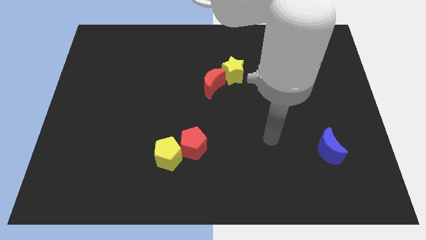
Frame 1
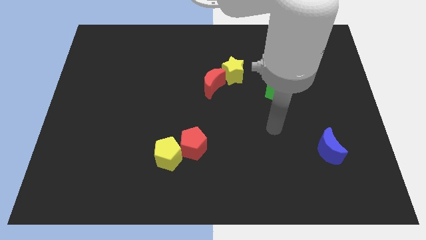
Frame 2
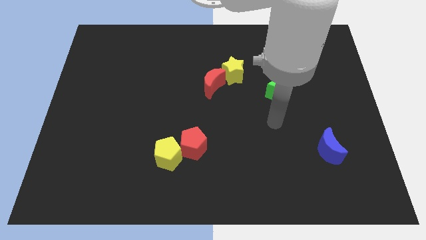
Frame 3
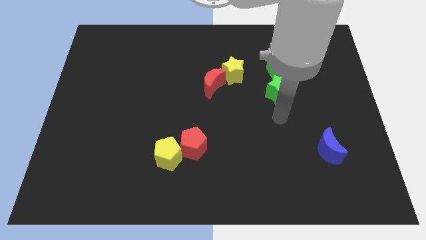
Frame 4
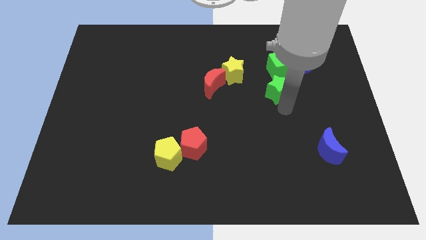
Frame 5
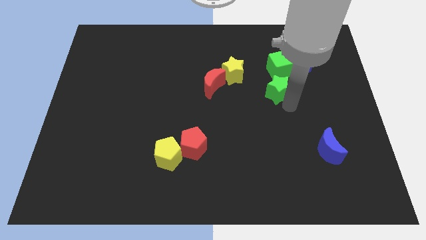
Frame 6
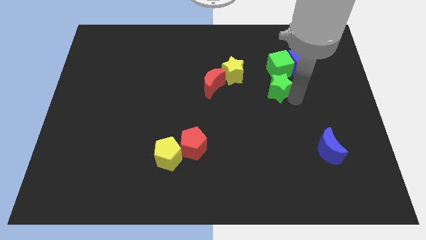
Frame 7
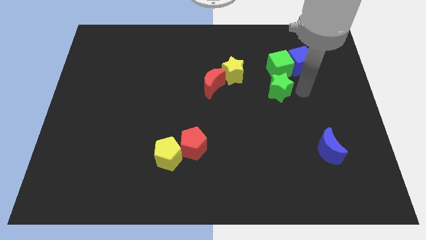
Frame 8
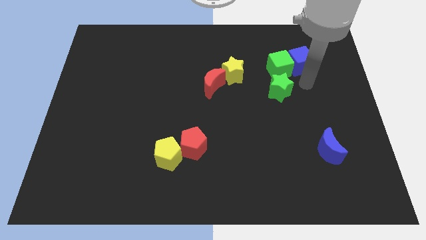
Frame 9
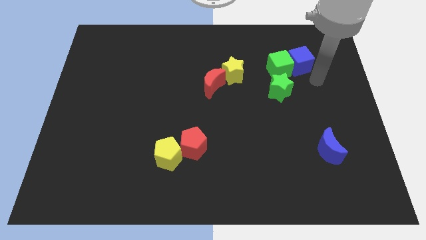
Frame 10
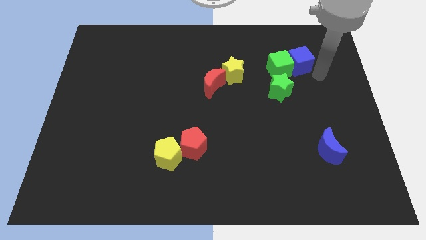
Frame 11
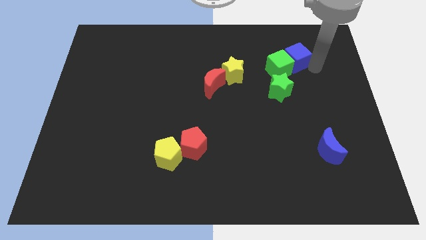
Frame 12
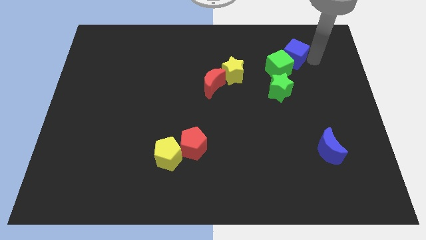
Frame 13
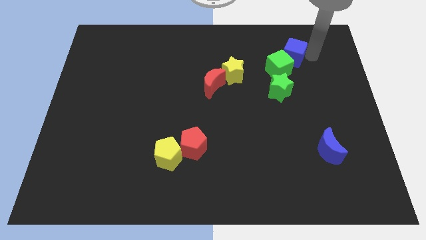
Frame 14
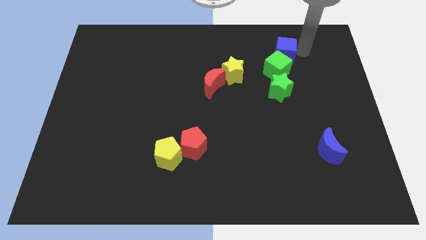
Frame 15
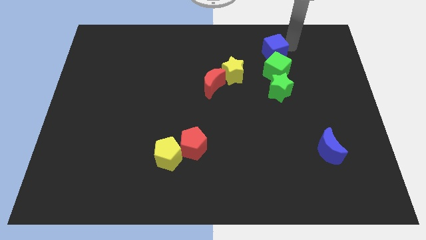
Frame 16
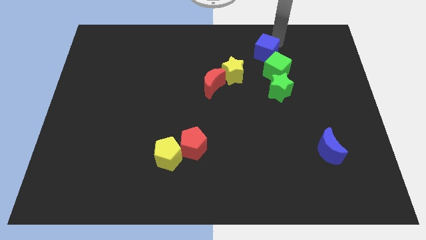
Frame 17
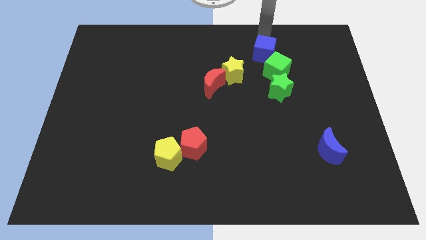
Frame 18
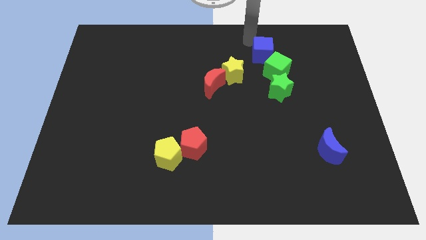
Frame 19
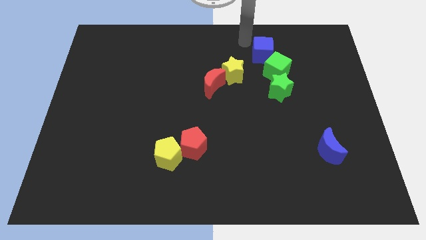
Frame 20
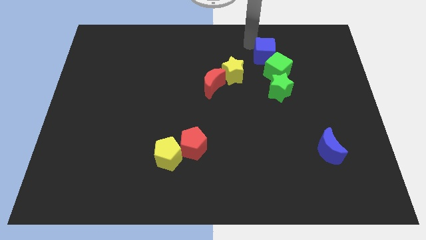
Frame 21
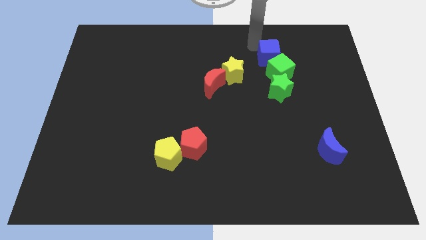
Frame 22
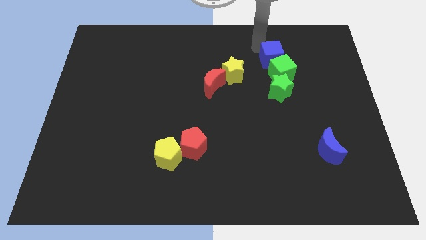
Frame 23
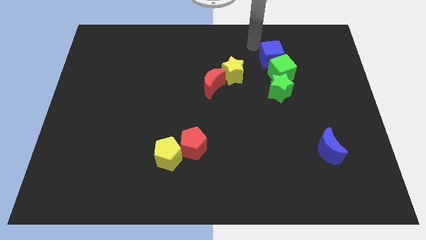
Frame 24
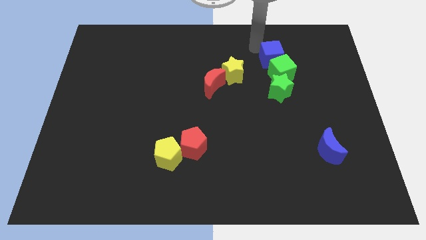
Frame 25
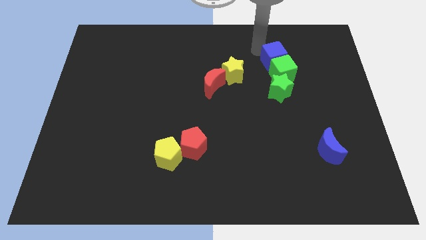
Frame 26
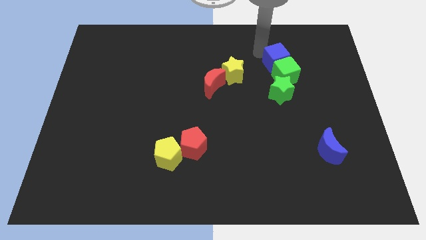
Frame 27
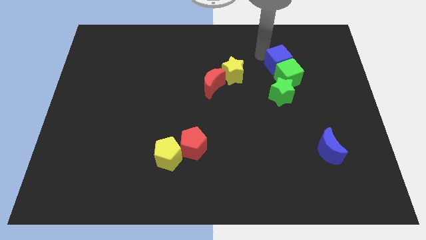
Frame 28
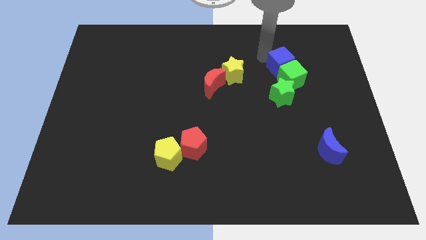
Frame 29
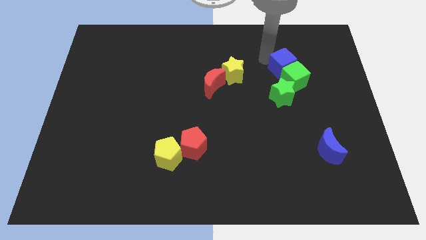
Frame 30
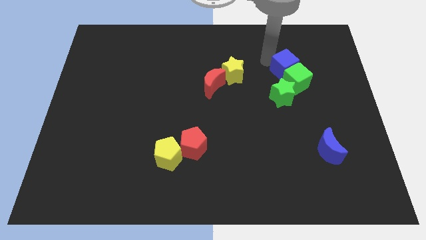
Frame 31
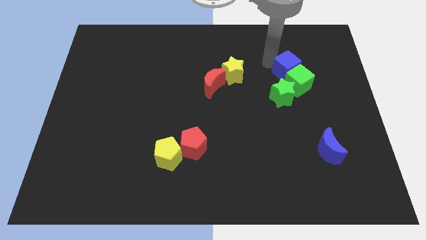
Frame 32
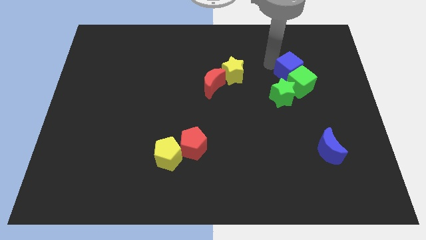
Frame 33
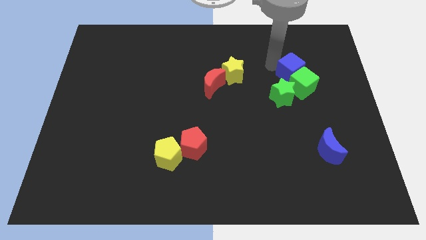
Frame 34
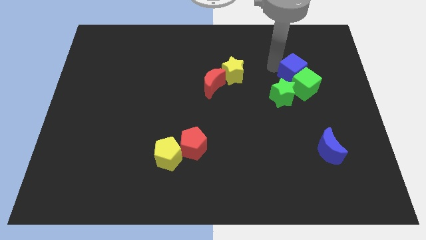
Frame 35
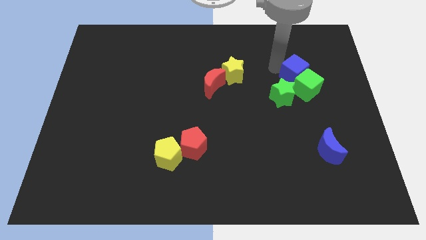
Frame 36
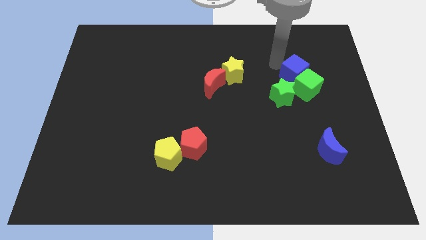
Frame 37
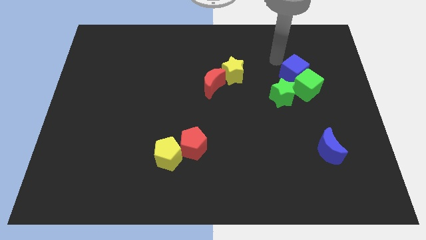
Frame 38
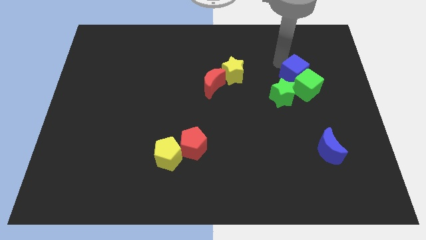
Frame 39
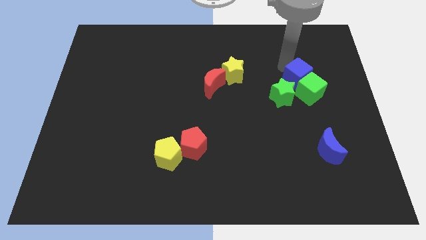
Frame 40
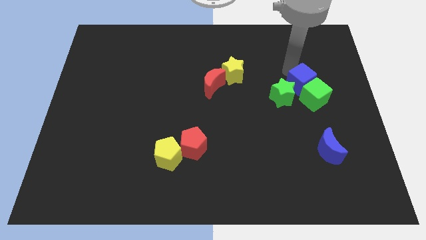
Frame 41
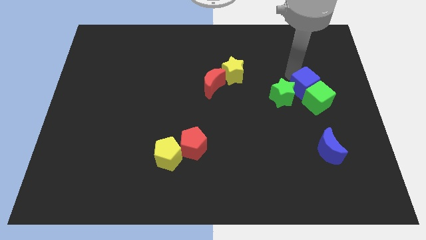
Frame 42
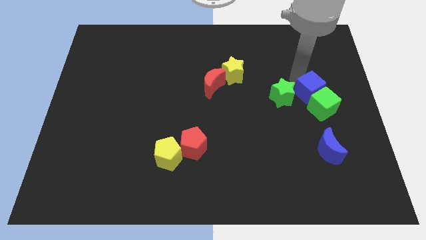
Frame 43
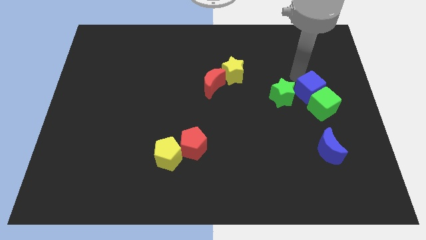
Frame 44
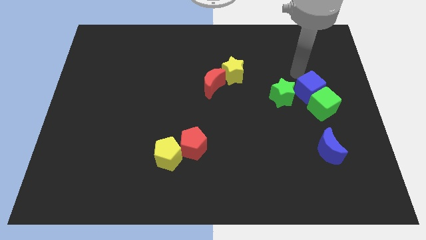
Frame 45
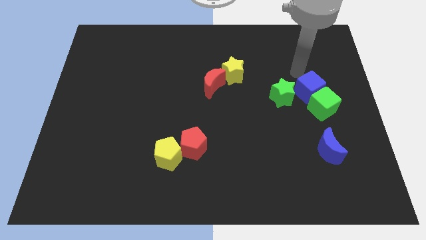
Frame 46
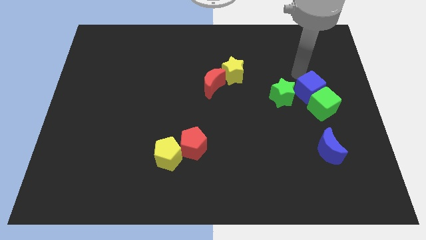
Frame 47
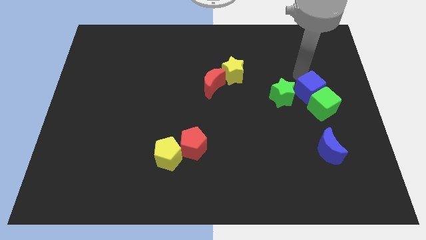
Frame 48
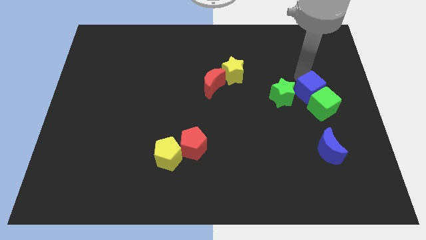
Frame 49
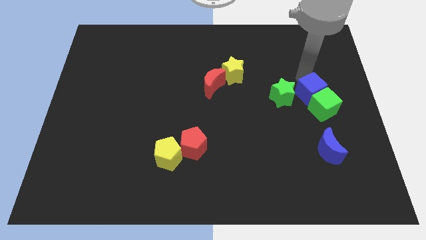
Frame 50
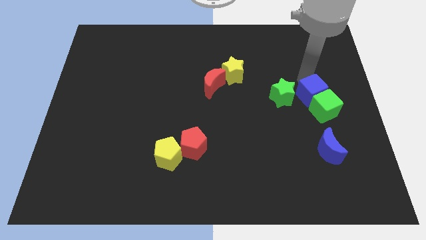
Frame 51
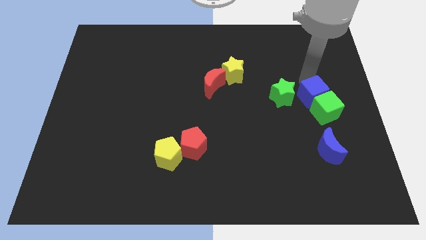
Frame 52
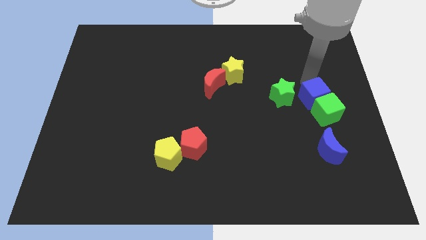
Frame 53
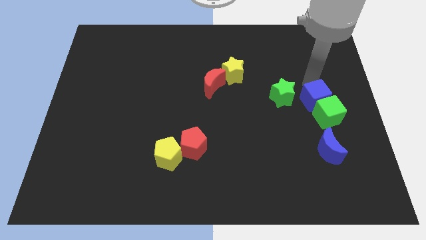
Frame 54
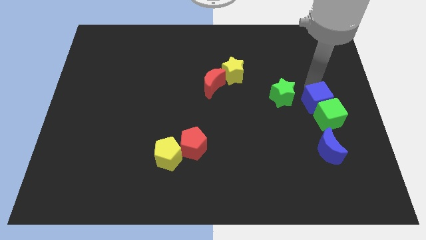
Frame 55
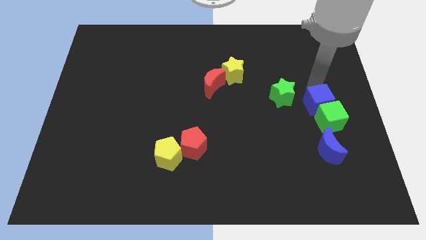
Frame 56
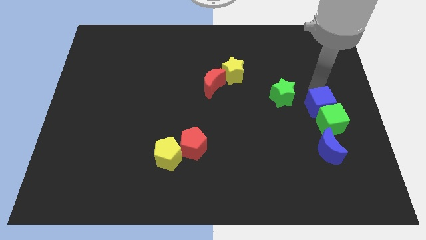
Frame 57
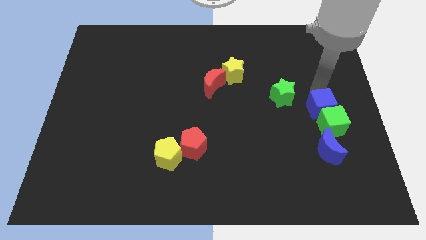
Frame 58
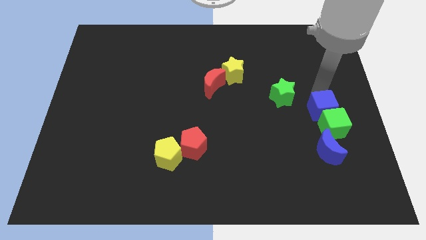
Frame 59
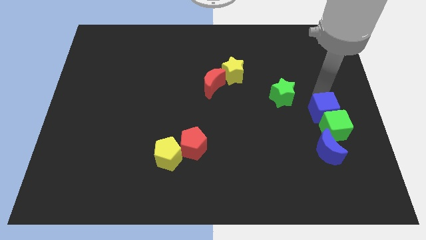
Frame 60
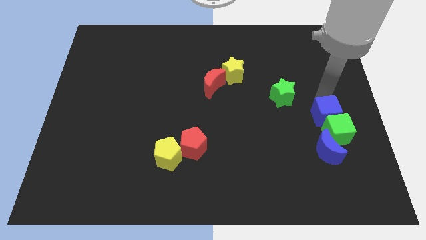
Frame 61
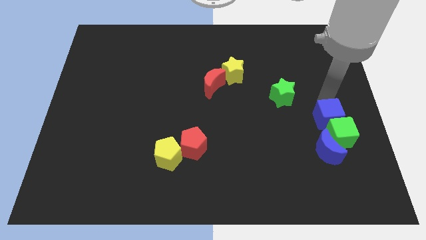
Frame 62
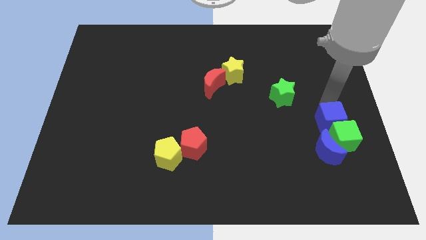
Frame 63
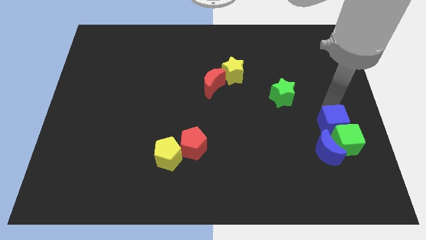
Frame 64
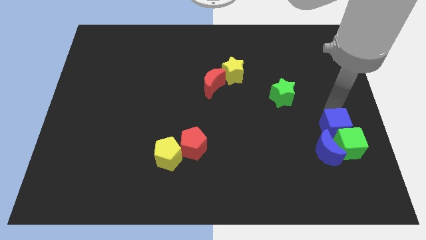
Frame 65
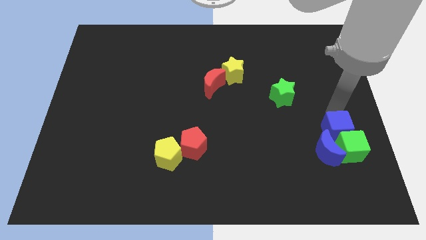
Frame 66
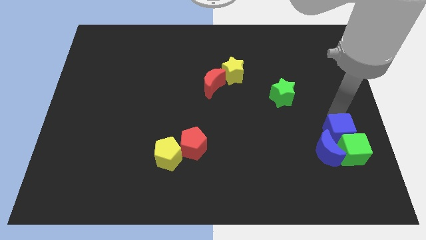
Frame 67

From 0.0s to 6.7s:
move the blue cube next to the blue moon

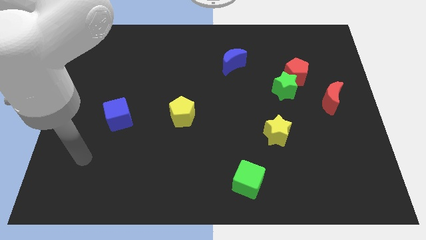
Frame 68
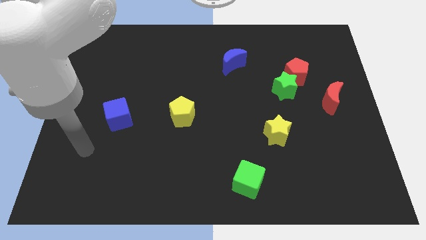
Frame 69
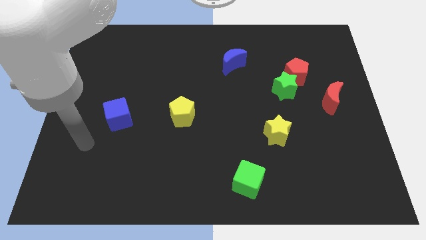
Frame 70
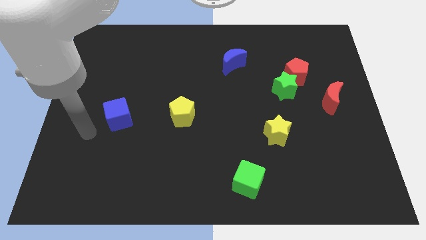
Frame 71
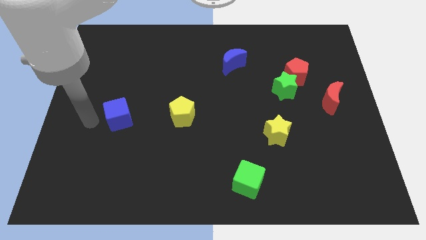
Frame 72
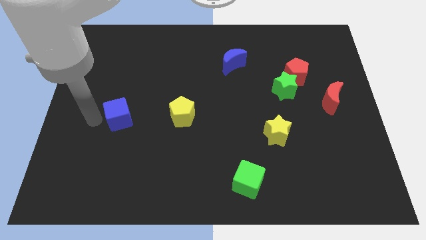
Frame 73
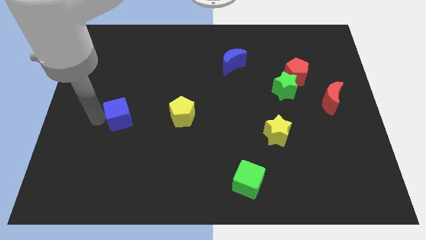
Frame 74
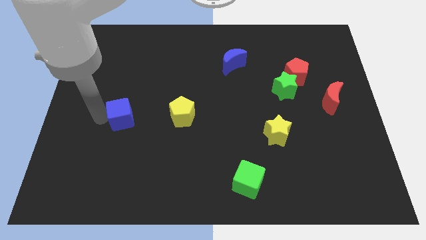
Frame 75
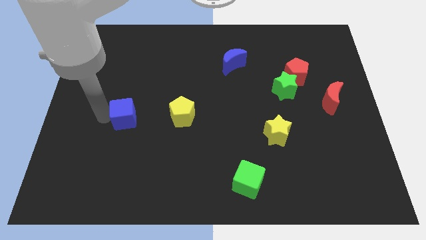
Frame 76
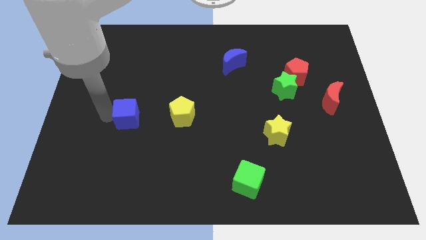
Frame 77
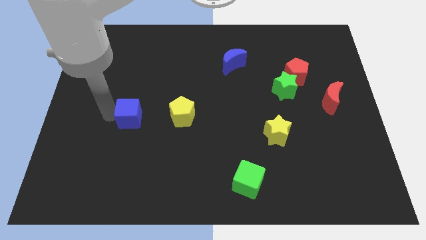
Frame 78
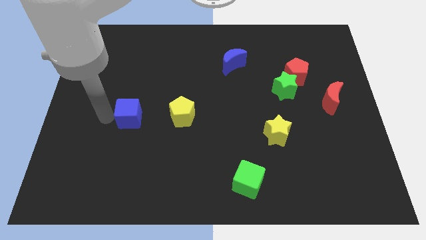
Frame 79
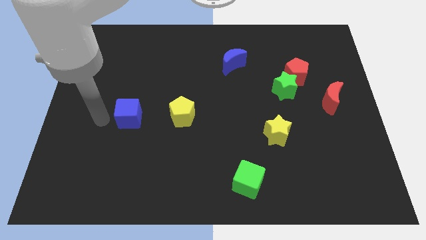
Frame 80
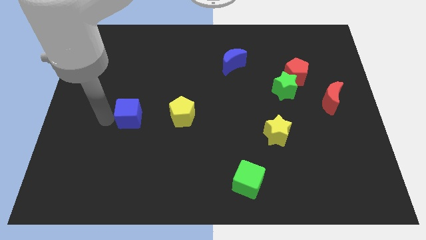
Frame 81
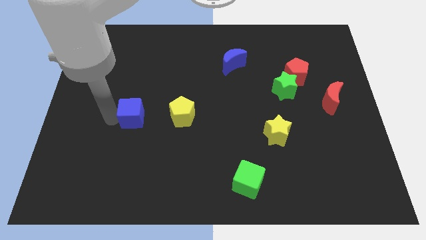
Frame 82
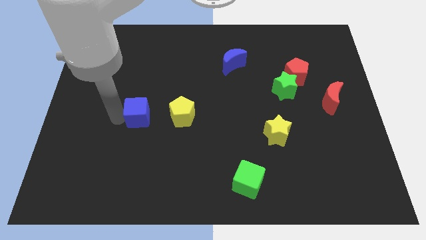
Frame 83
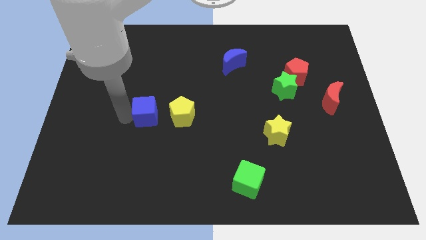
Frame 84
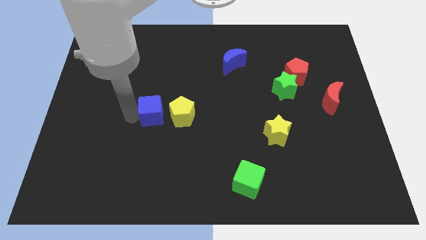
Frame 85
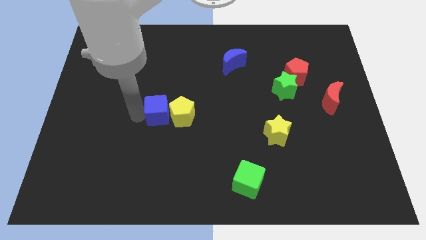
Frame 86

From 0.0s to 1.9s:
slide the blue cube close to the yellow pentagon
